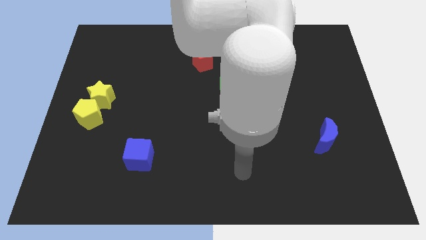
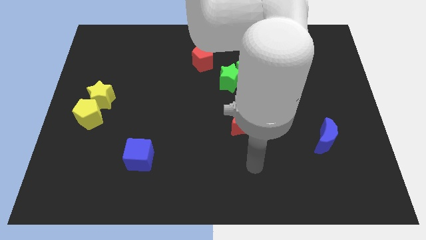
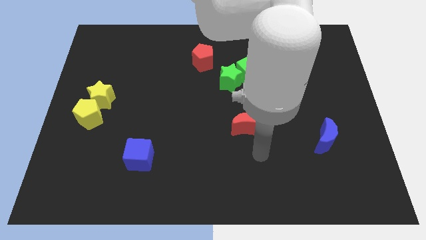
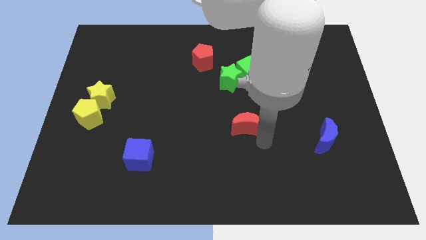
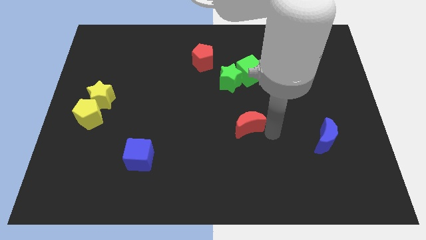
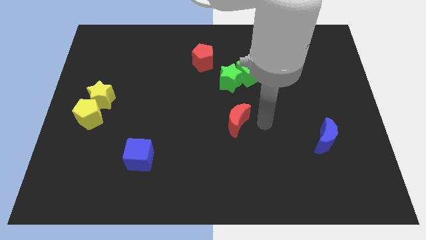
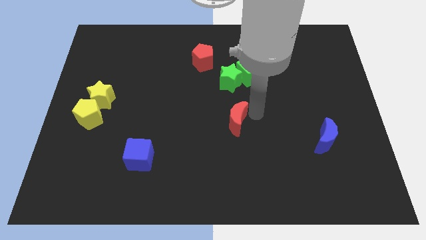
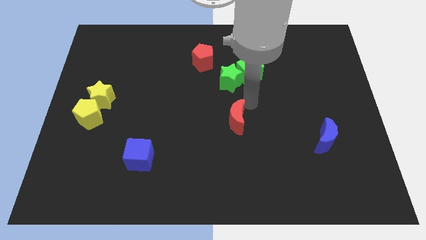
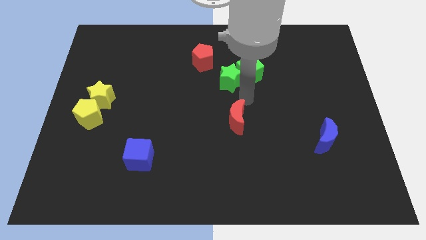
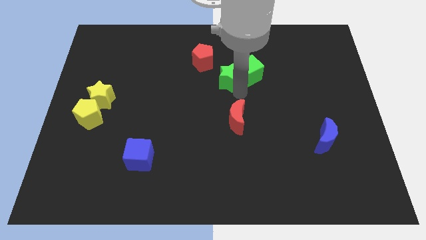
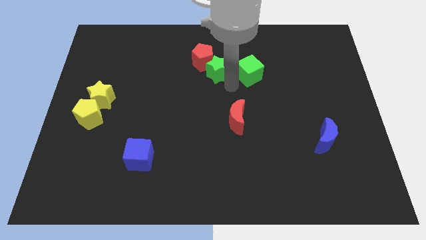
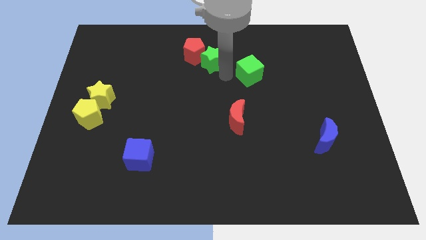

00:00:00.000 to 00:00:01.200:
move the green cube away from the green star

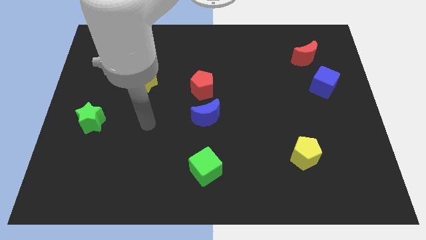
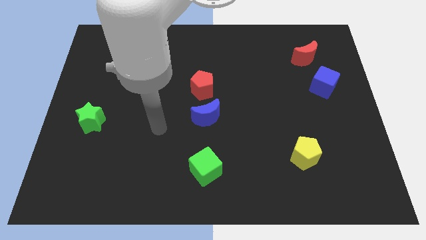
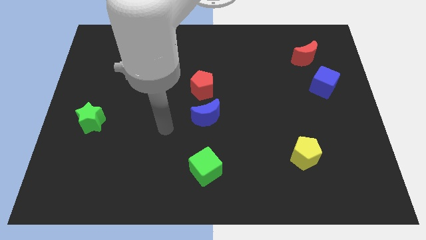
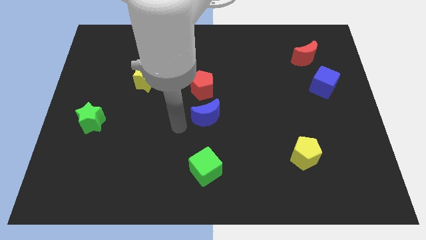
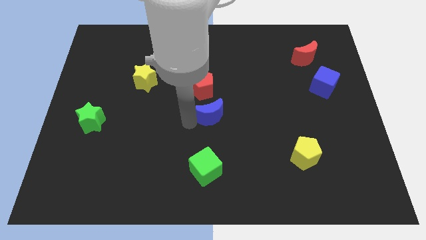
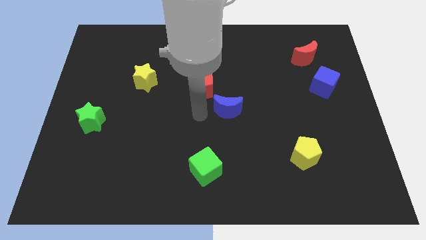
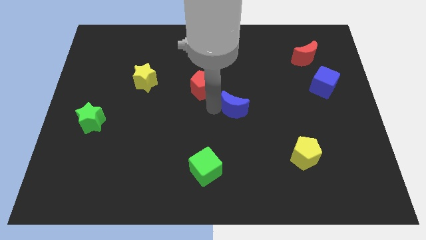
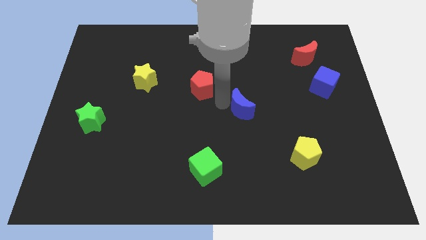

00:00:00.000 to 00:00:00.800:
pull the red pentagon apart from the blue moon

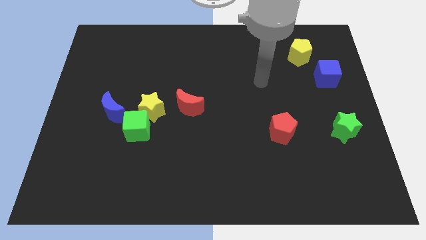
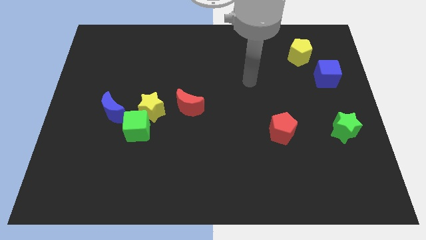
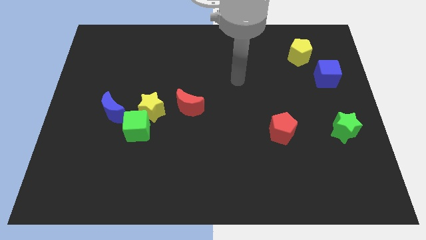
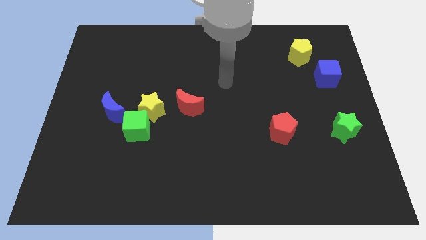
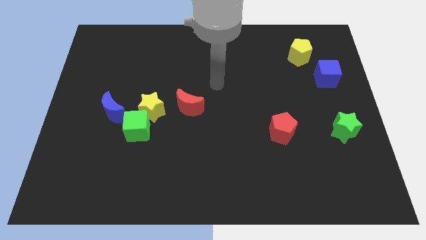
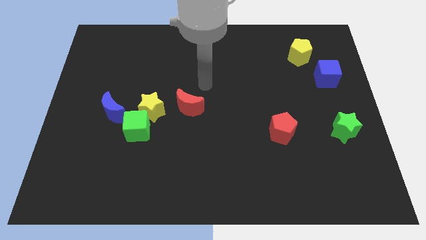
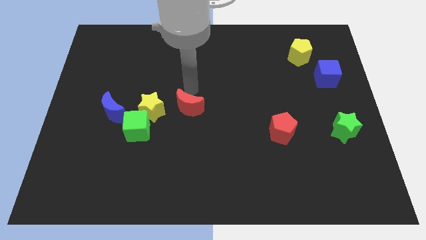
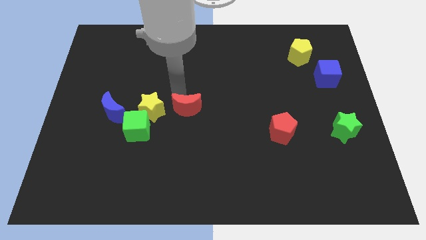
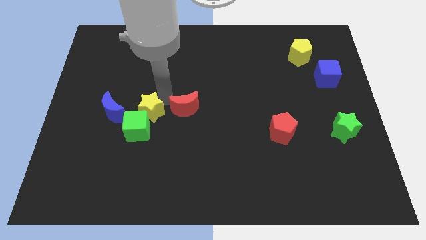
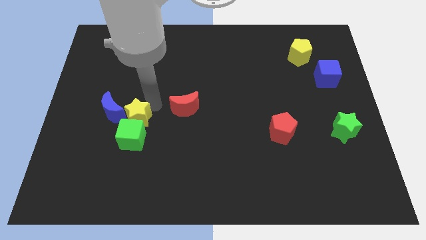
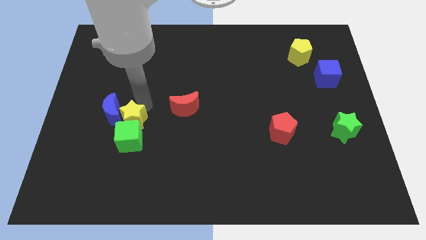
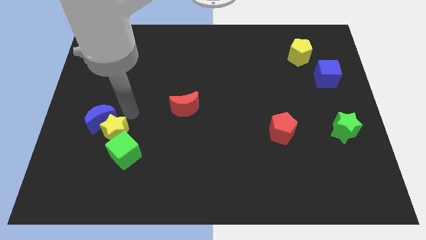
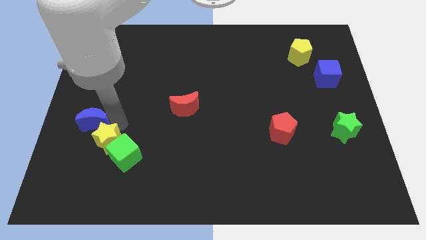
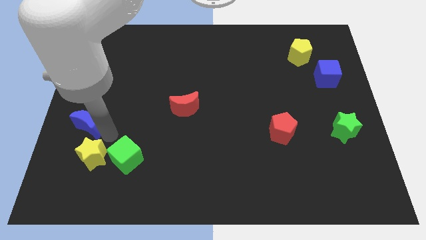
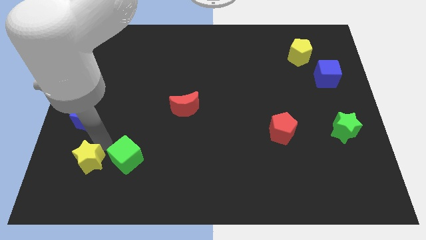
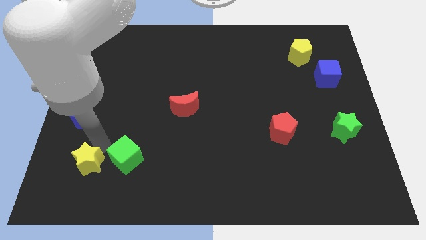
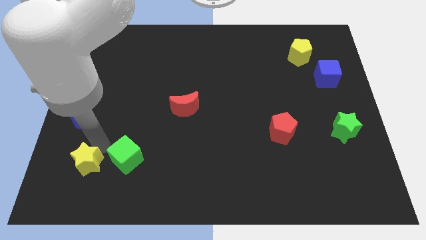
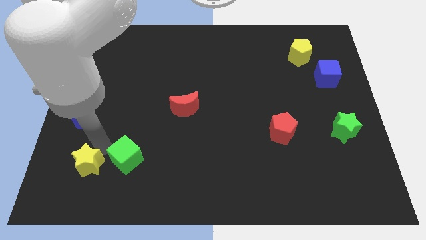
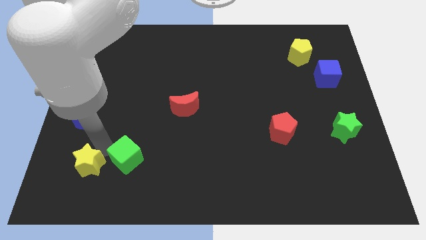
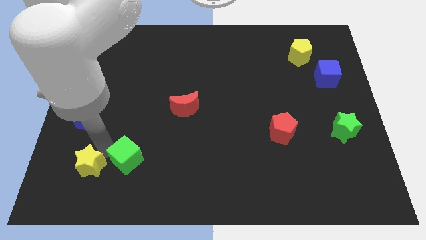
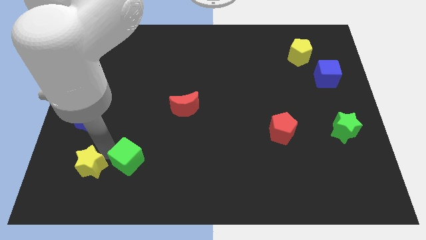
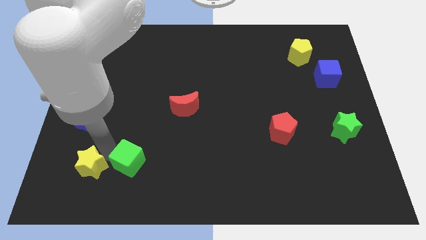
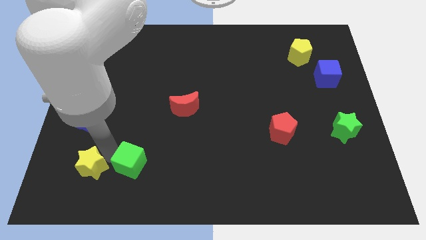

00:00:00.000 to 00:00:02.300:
separate the green cube from the yellow star and blue moon

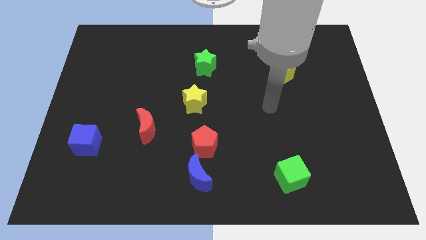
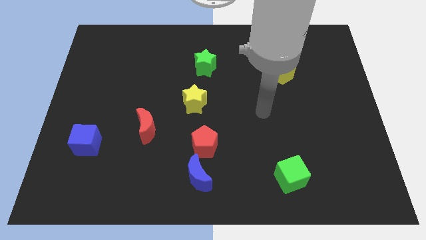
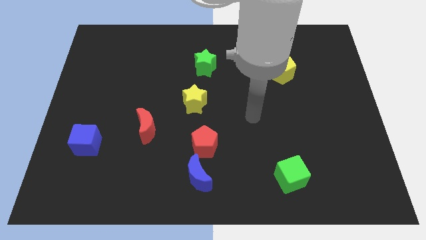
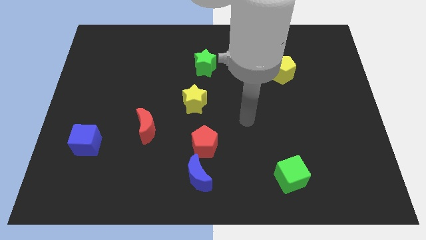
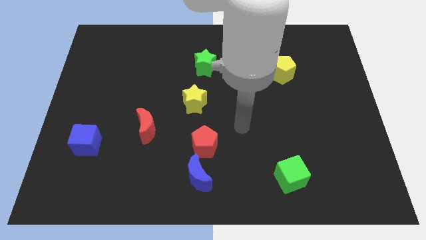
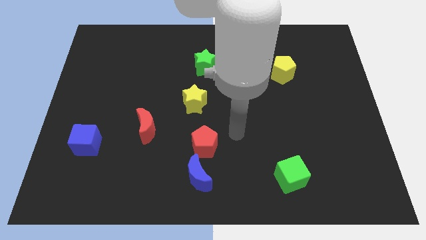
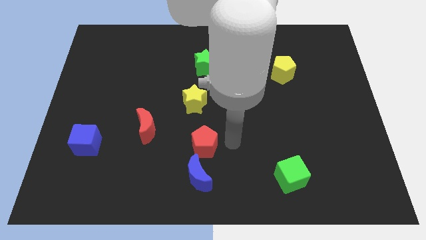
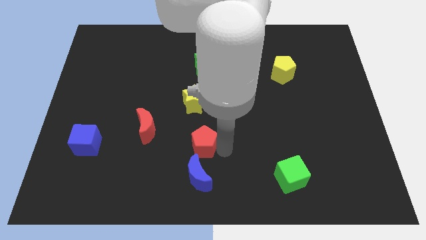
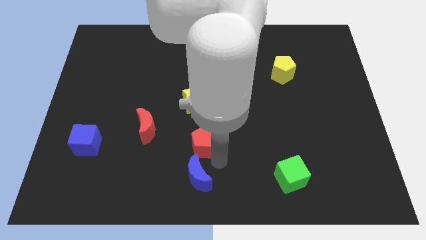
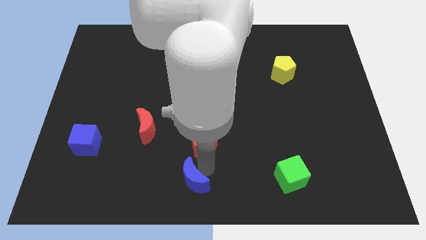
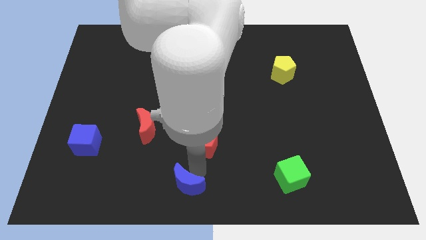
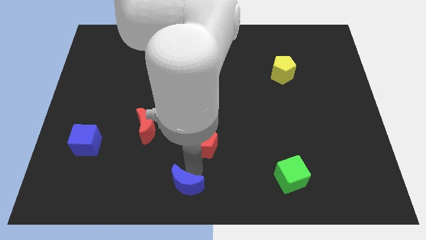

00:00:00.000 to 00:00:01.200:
separate the red pentagon from the blue moon

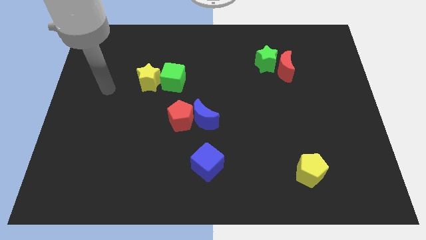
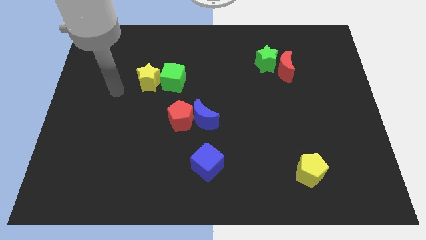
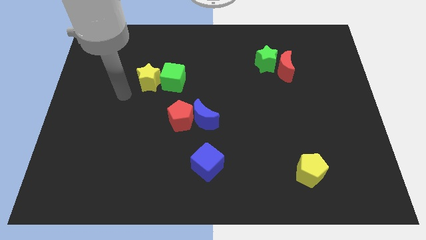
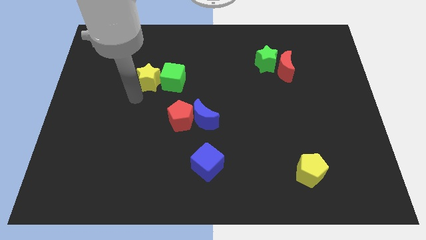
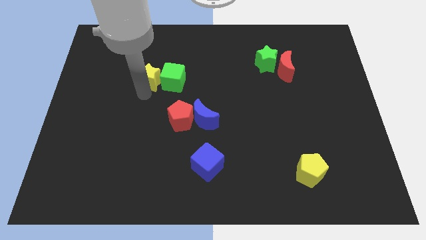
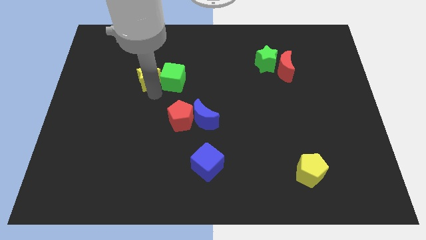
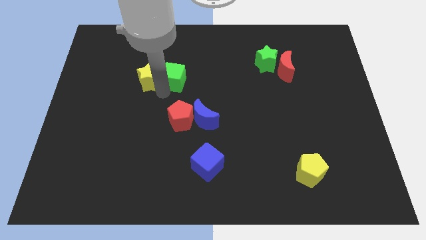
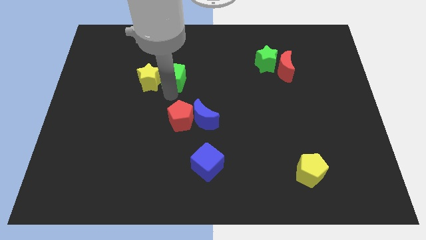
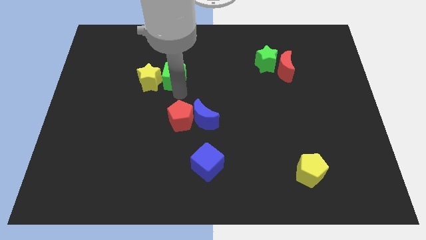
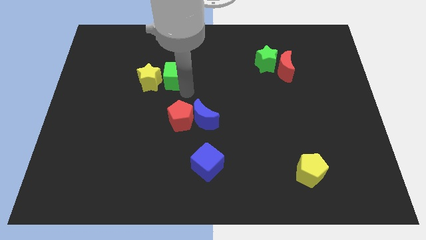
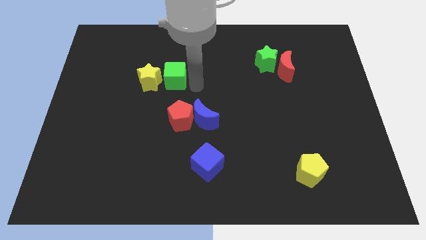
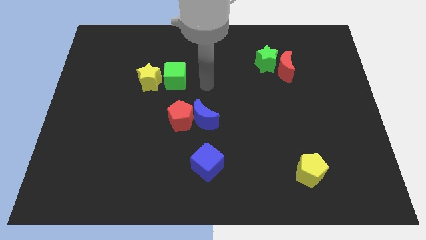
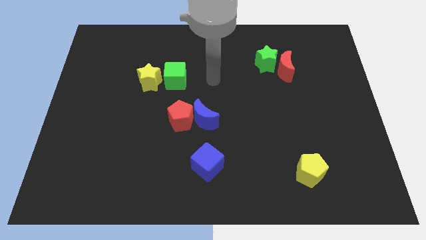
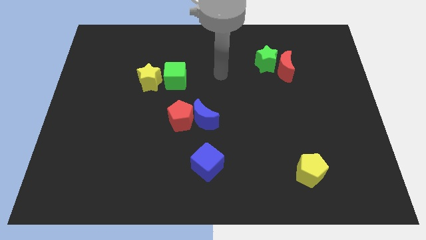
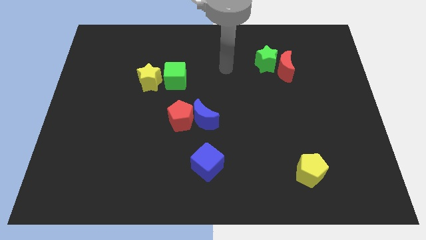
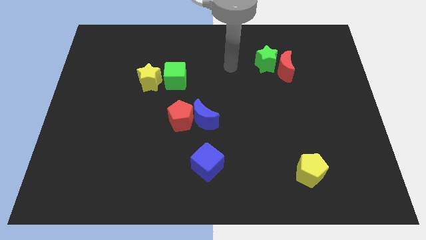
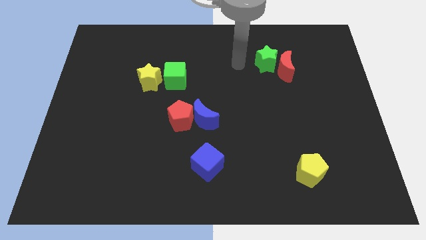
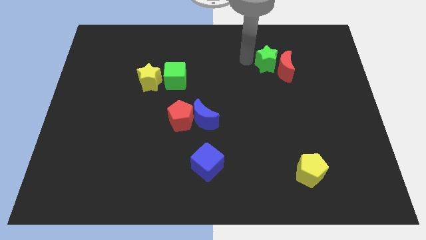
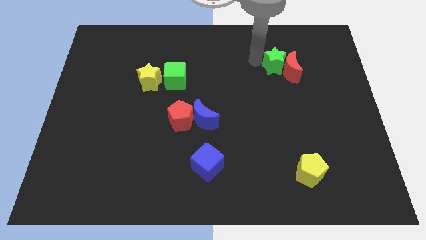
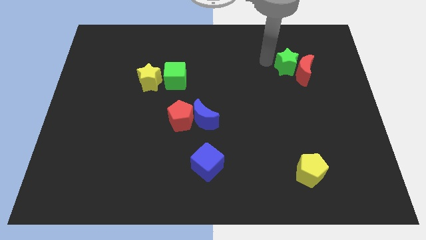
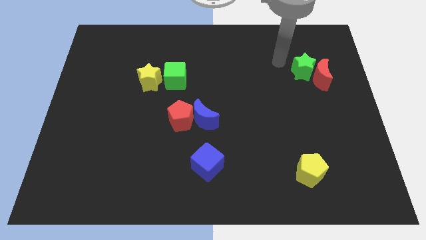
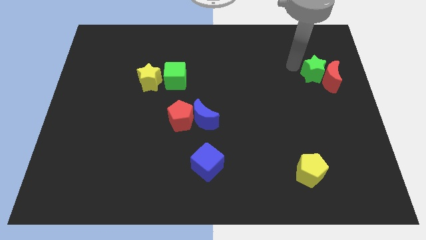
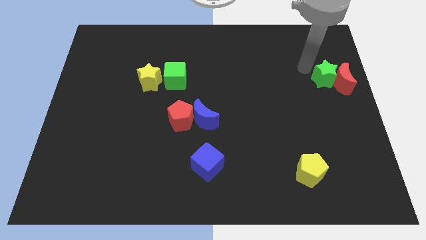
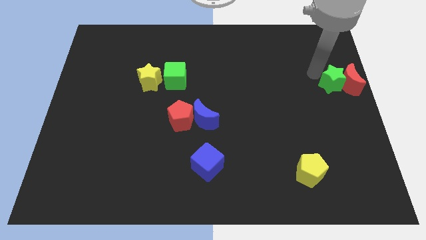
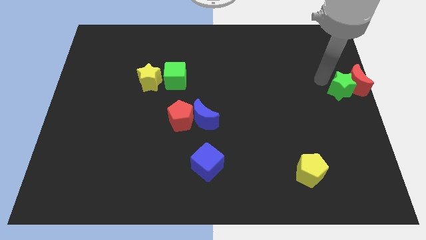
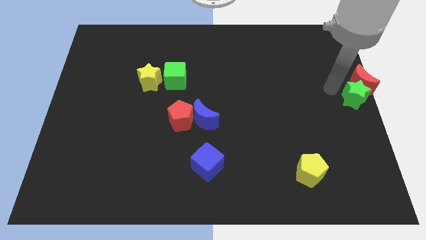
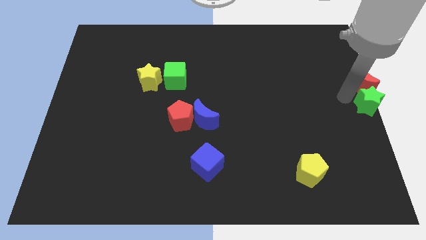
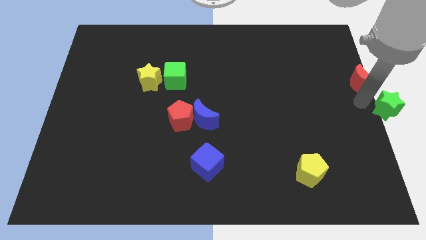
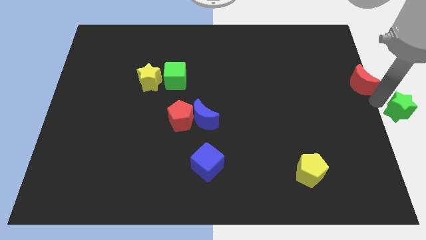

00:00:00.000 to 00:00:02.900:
separate the red moon from the green star

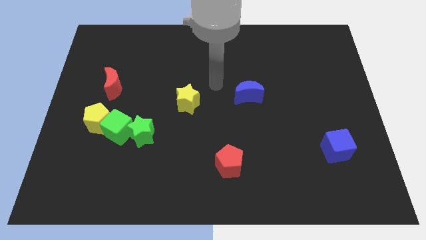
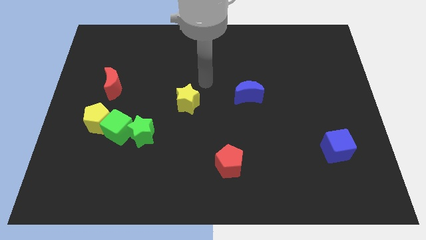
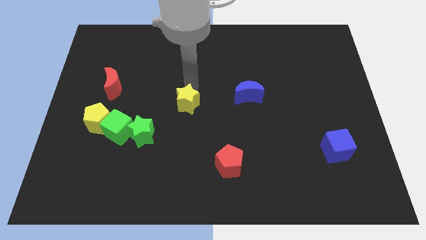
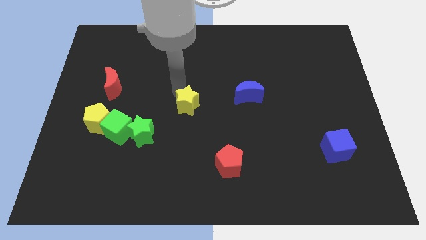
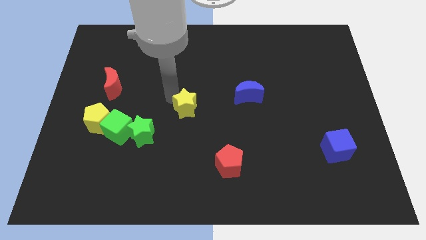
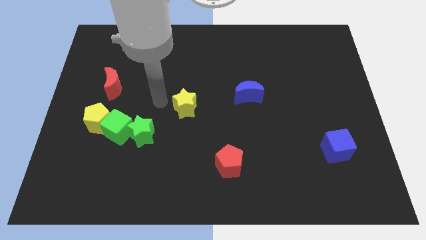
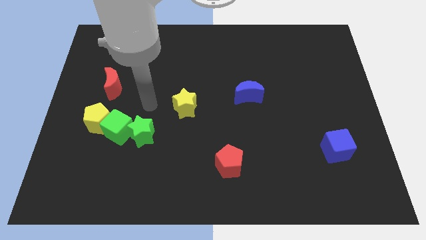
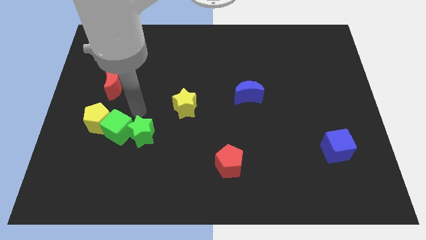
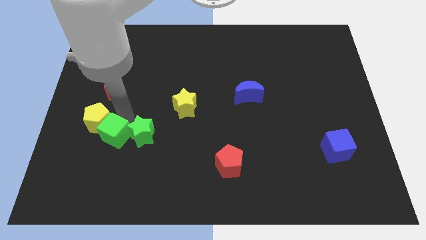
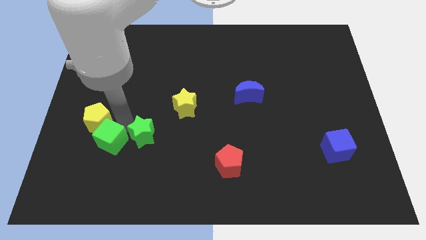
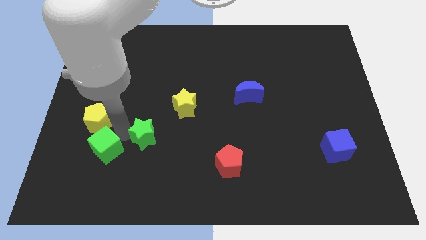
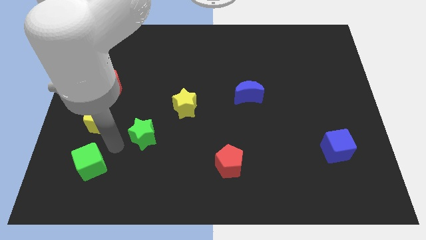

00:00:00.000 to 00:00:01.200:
pull the green star apart from the green cube
